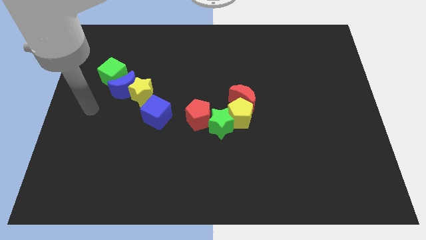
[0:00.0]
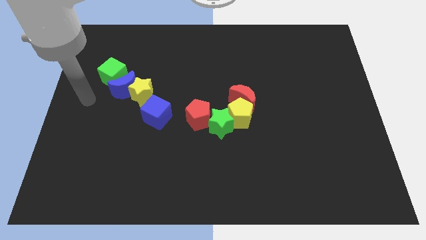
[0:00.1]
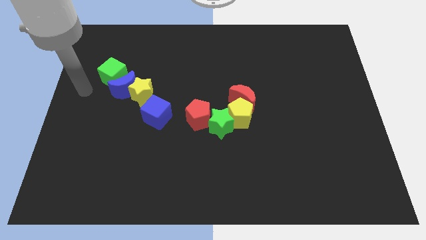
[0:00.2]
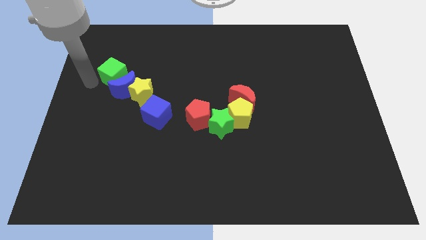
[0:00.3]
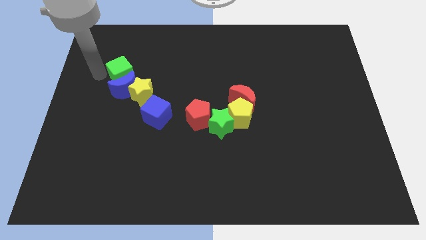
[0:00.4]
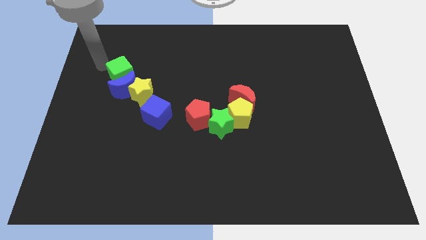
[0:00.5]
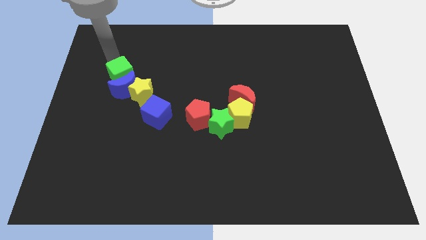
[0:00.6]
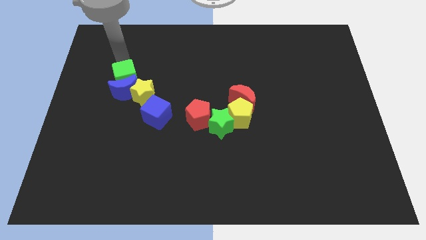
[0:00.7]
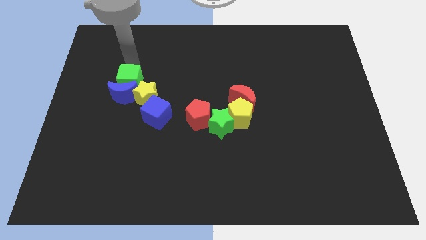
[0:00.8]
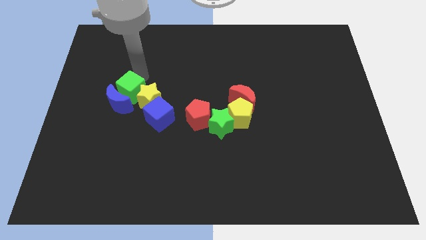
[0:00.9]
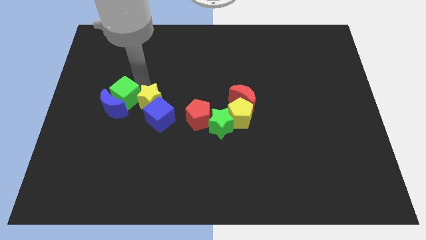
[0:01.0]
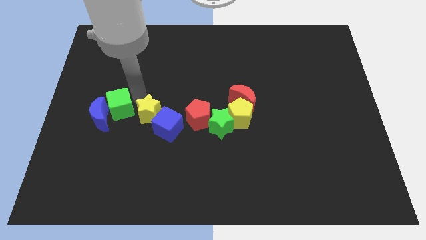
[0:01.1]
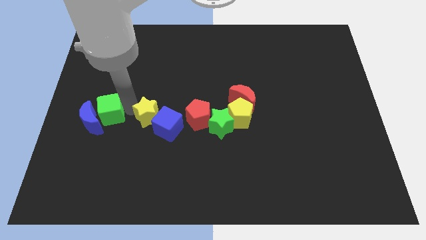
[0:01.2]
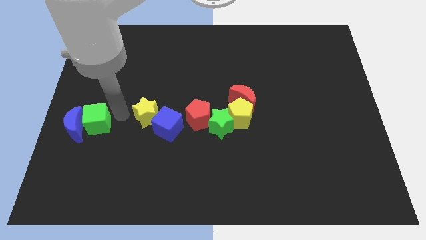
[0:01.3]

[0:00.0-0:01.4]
pull the blue moon apart from the yellow star and green cube

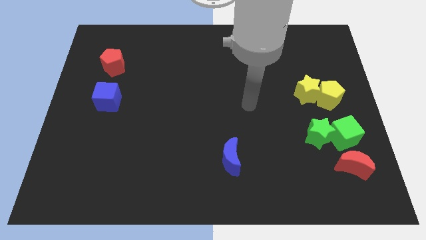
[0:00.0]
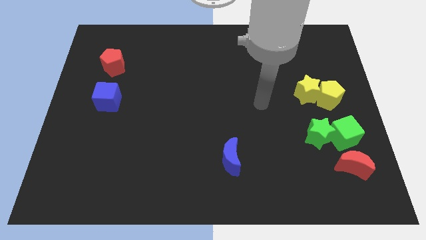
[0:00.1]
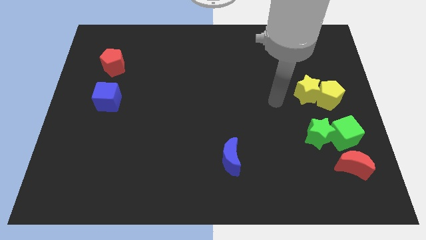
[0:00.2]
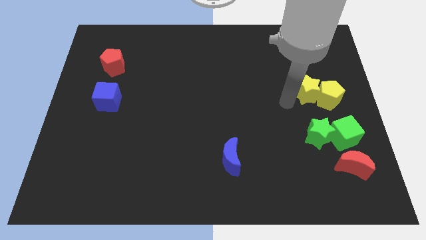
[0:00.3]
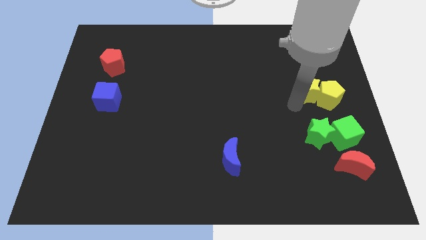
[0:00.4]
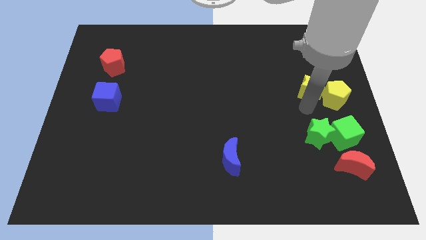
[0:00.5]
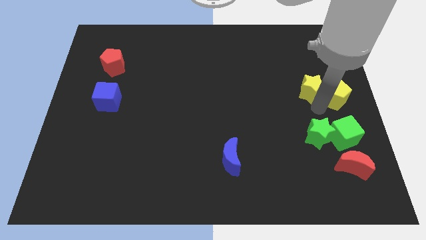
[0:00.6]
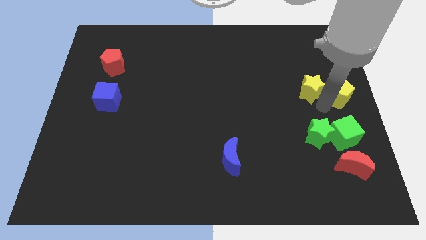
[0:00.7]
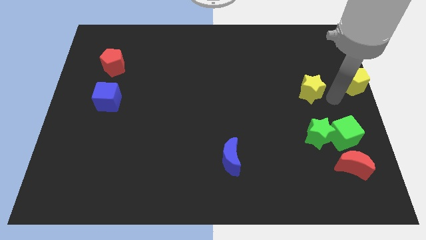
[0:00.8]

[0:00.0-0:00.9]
move the yellow star away from the yellow pentagon

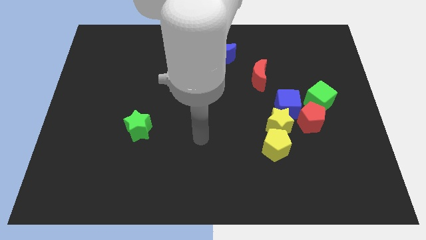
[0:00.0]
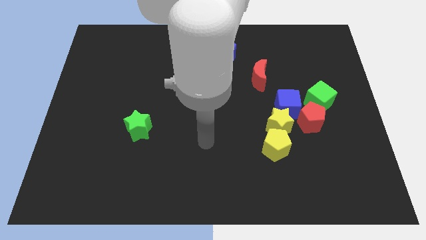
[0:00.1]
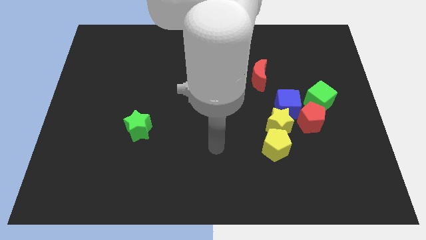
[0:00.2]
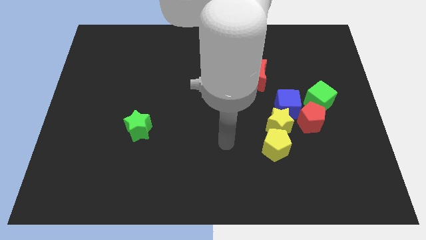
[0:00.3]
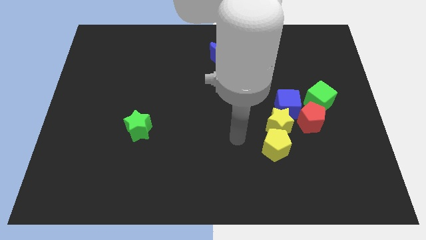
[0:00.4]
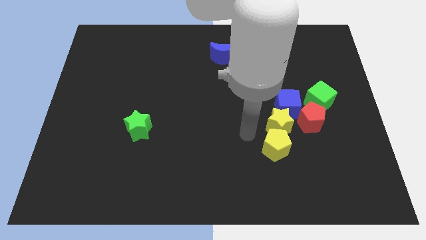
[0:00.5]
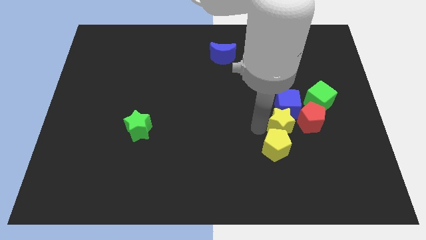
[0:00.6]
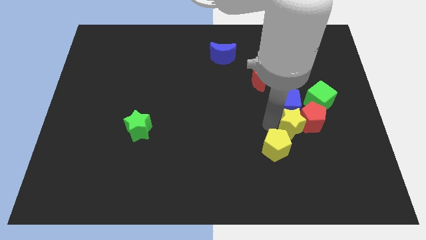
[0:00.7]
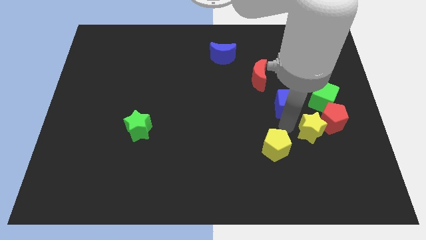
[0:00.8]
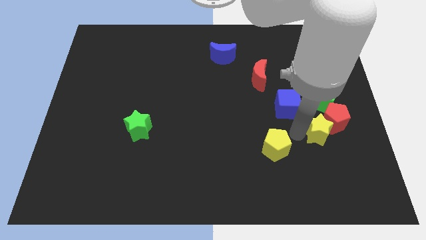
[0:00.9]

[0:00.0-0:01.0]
pull the yellow pentagon apart from the yellow star

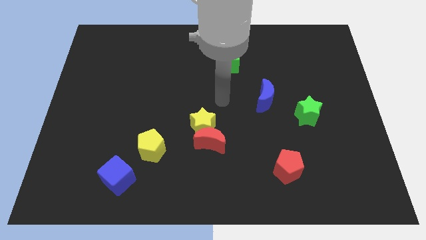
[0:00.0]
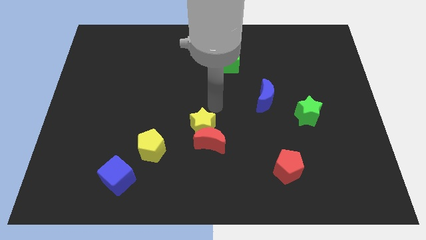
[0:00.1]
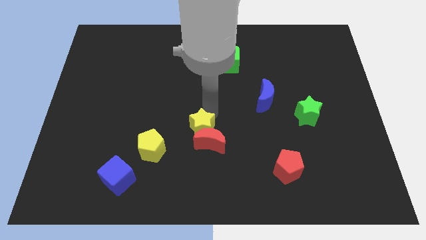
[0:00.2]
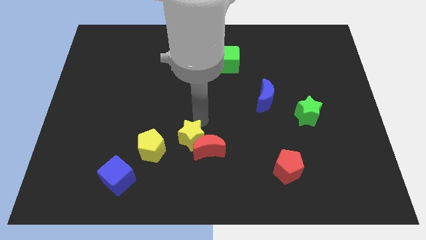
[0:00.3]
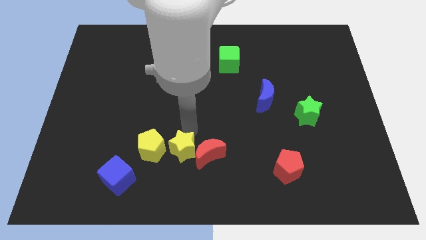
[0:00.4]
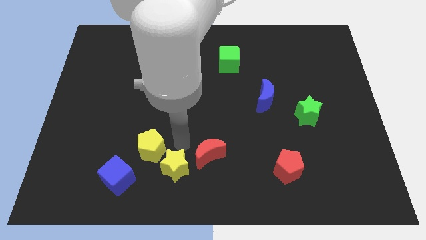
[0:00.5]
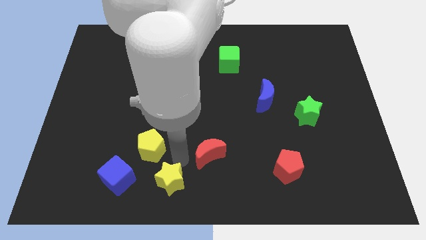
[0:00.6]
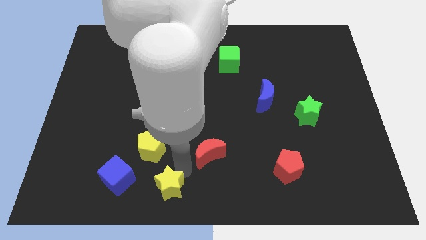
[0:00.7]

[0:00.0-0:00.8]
move the red moon away from the yellow star

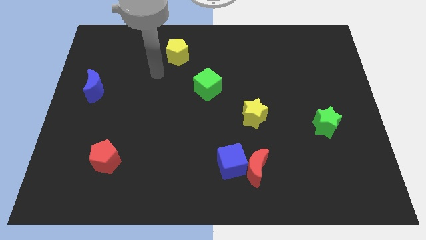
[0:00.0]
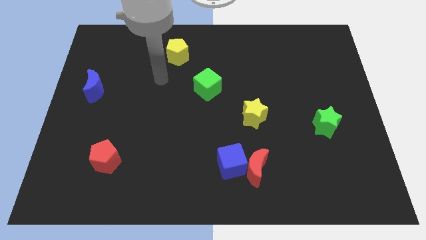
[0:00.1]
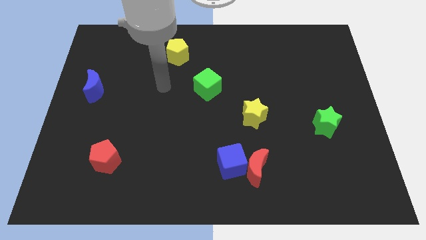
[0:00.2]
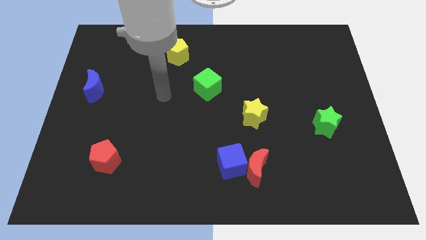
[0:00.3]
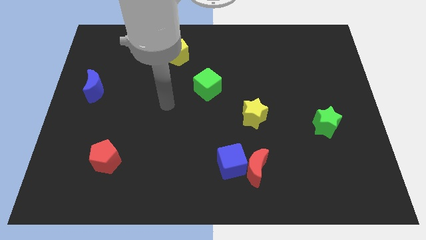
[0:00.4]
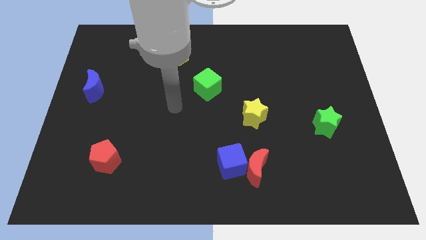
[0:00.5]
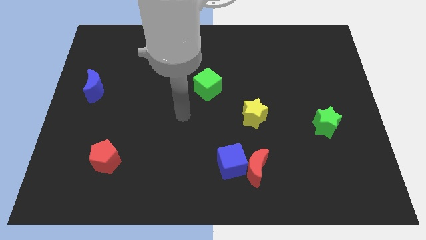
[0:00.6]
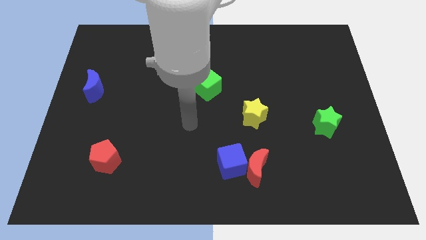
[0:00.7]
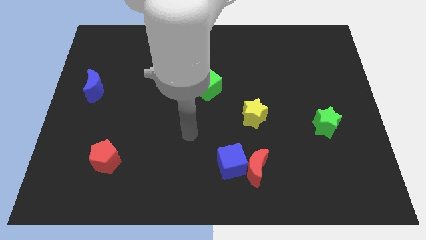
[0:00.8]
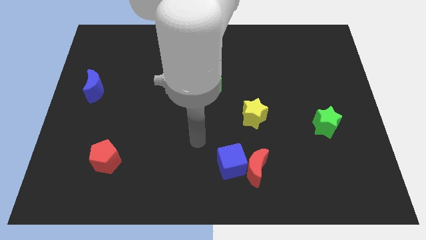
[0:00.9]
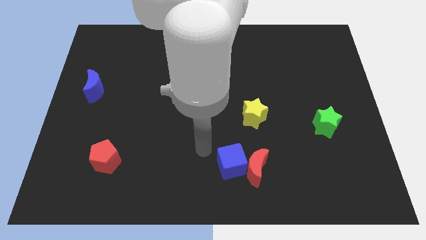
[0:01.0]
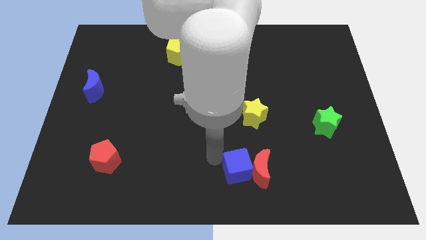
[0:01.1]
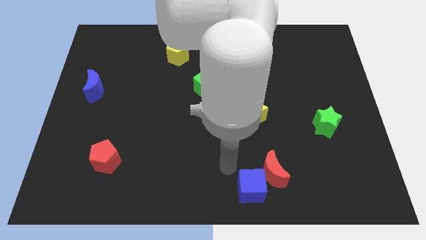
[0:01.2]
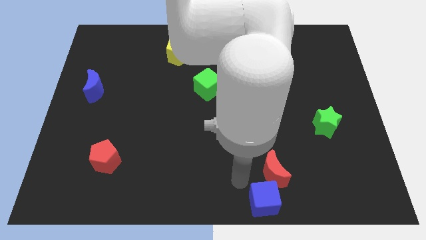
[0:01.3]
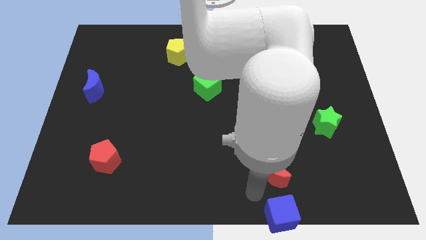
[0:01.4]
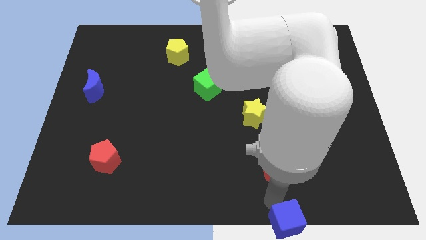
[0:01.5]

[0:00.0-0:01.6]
pull the red moon apart from the blue cube

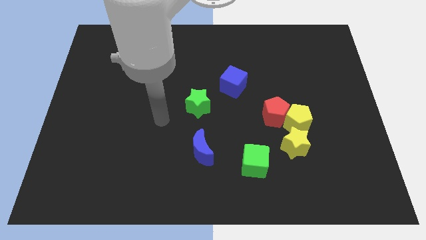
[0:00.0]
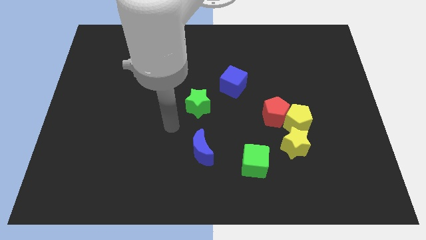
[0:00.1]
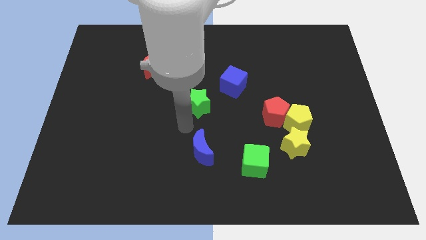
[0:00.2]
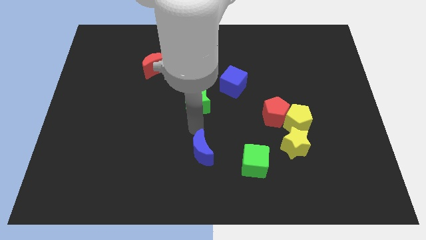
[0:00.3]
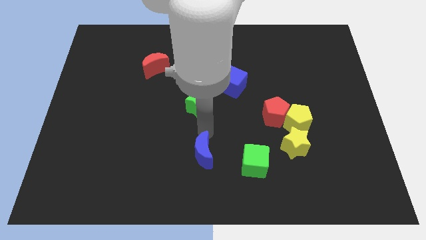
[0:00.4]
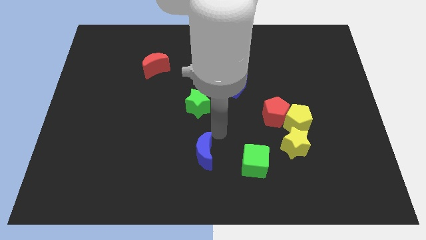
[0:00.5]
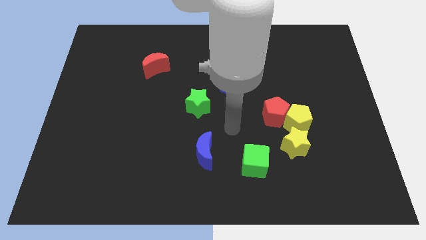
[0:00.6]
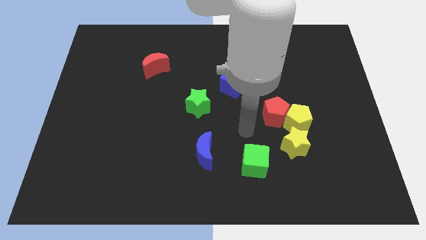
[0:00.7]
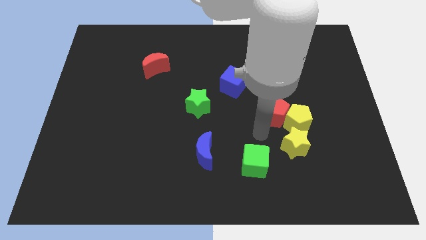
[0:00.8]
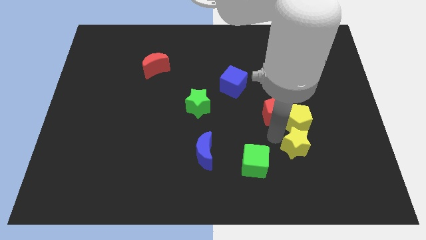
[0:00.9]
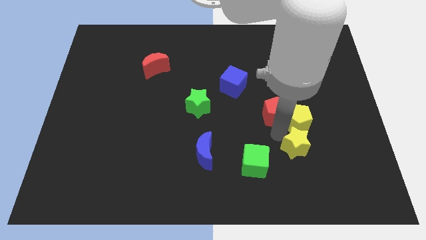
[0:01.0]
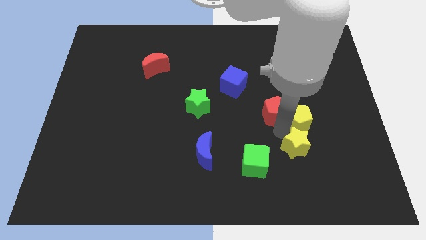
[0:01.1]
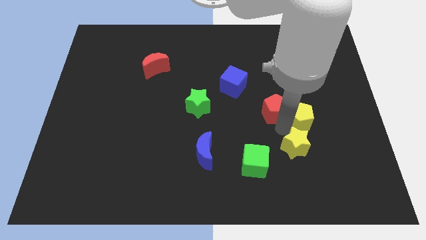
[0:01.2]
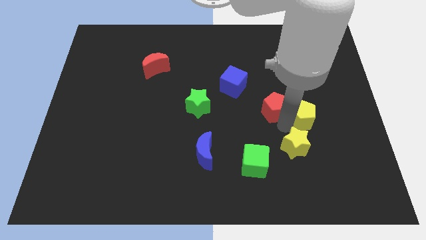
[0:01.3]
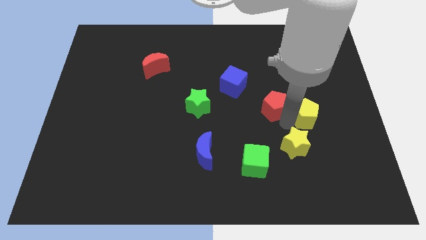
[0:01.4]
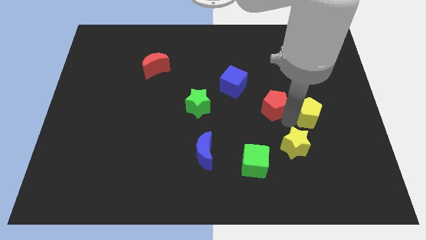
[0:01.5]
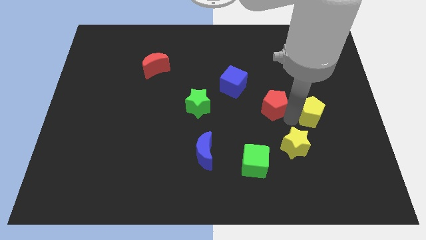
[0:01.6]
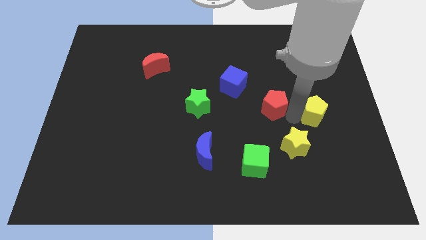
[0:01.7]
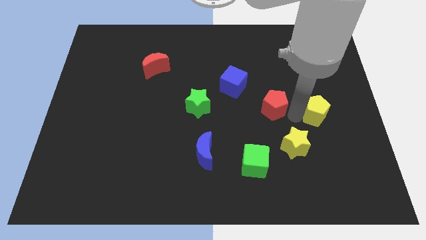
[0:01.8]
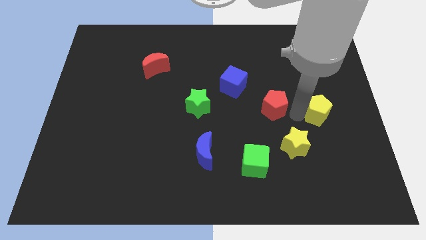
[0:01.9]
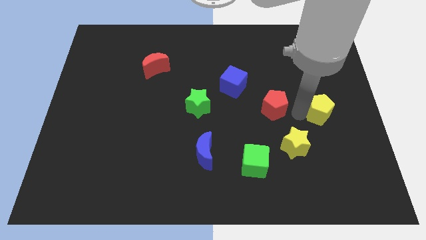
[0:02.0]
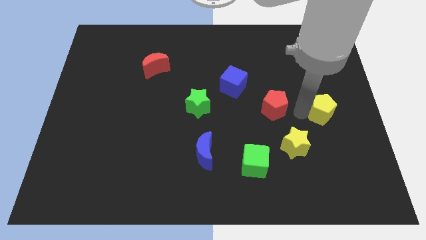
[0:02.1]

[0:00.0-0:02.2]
move the yellow pentagon away from the red pentagon and yellow star

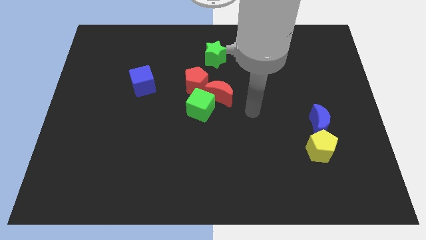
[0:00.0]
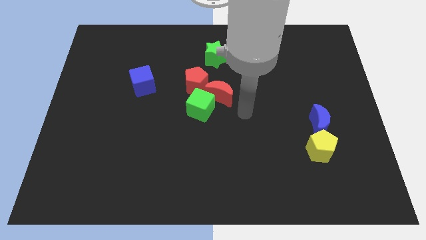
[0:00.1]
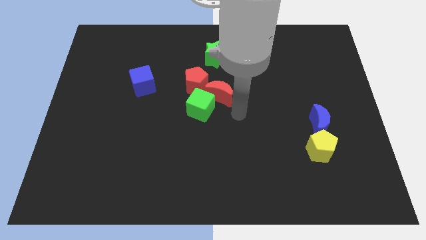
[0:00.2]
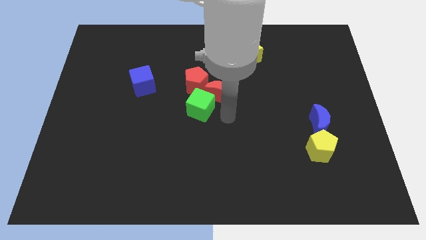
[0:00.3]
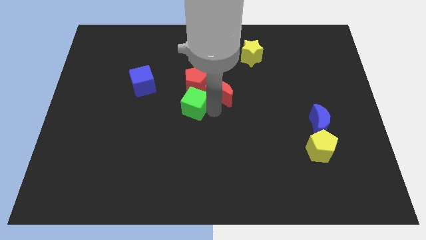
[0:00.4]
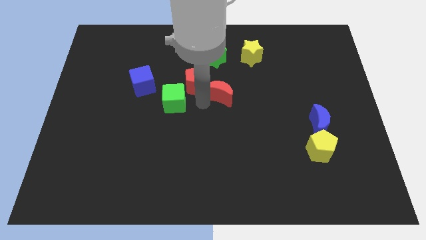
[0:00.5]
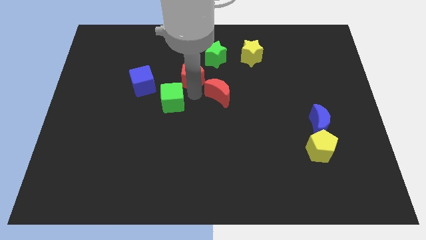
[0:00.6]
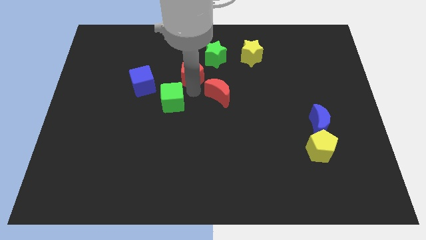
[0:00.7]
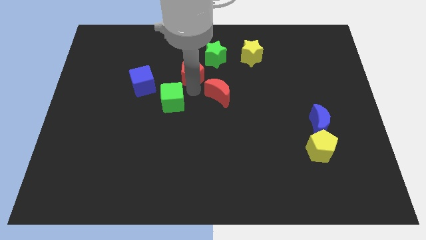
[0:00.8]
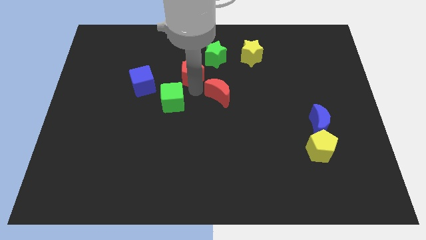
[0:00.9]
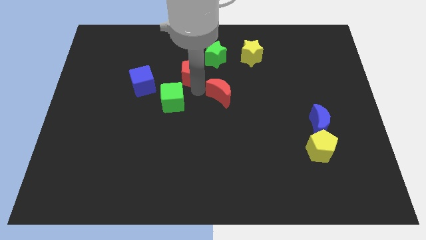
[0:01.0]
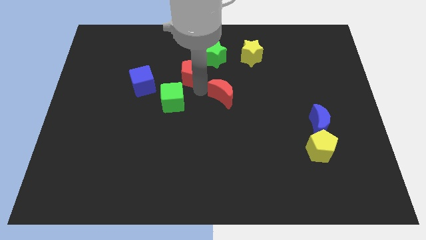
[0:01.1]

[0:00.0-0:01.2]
move the red moon away from the green cube and red pentagon

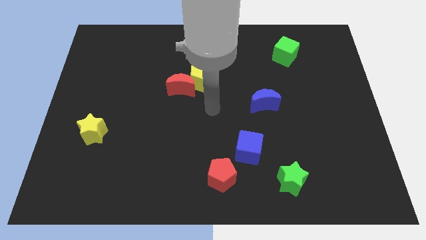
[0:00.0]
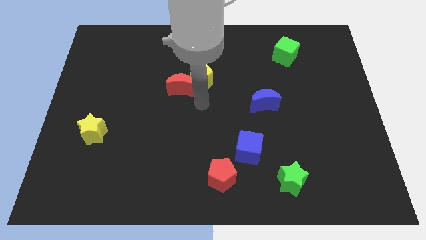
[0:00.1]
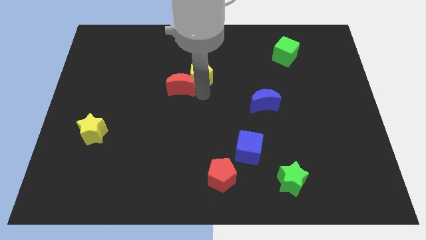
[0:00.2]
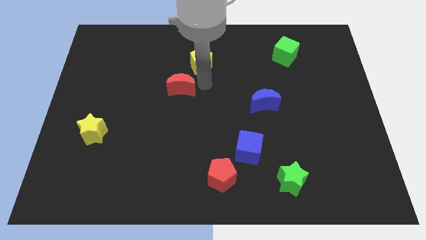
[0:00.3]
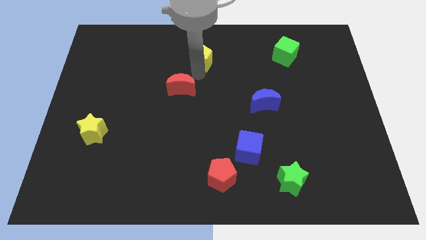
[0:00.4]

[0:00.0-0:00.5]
separate the red moon from the yellow pentagon
